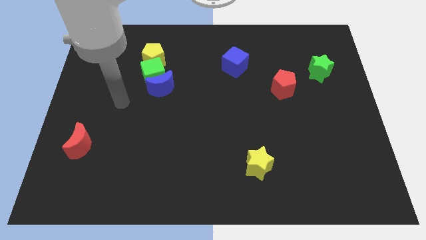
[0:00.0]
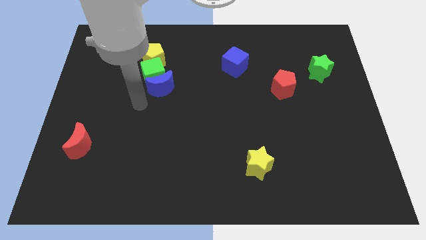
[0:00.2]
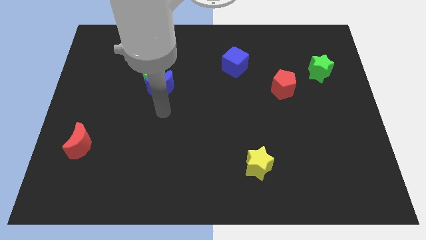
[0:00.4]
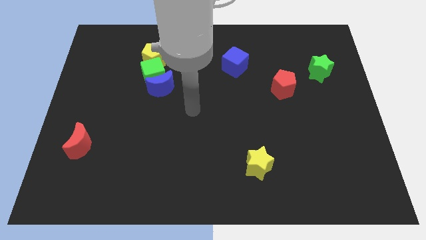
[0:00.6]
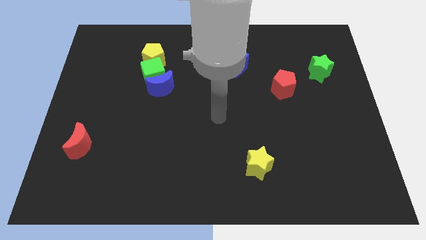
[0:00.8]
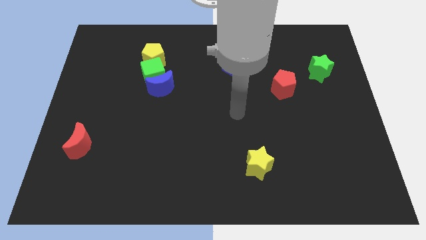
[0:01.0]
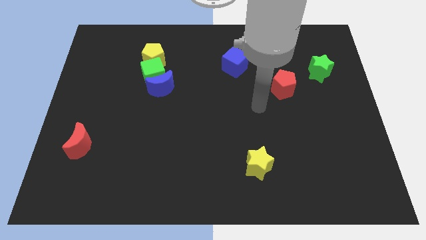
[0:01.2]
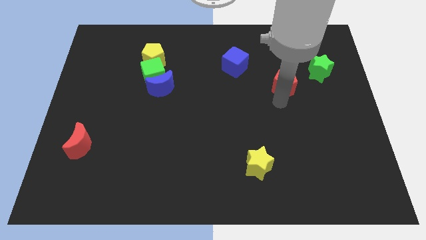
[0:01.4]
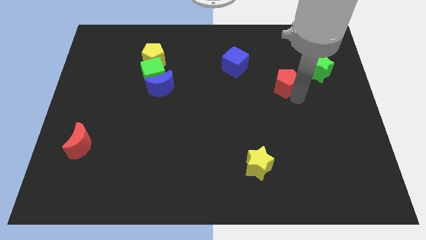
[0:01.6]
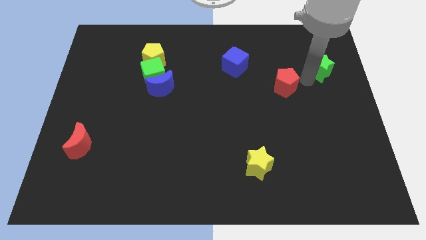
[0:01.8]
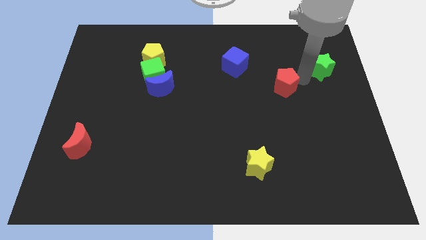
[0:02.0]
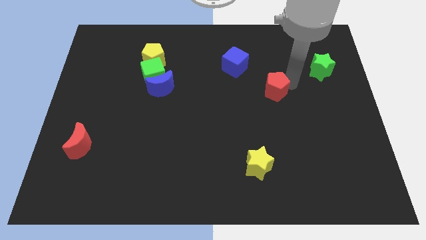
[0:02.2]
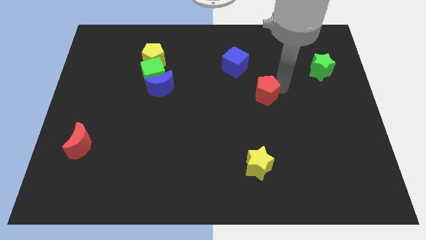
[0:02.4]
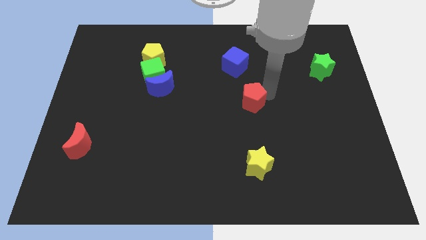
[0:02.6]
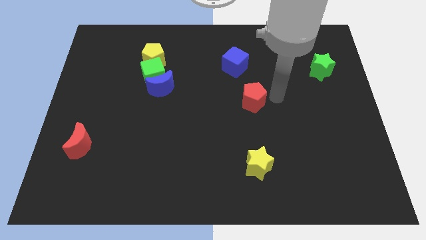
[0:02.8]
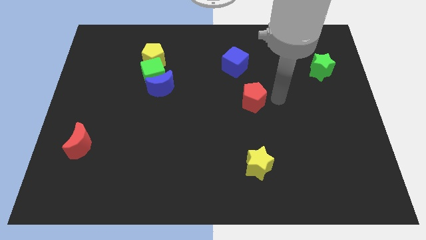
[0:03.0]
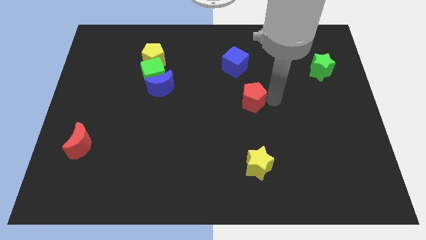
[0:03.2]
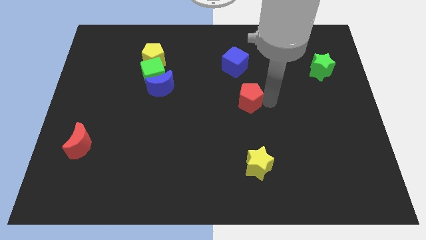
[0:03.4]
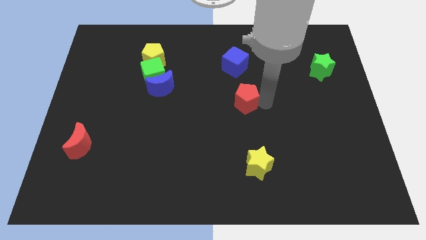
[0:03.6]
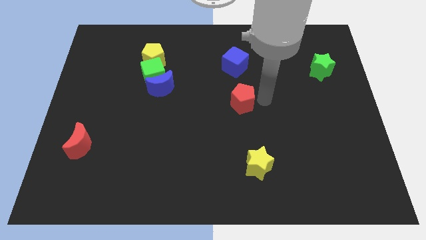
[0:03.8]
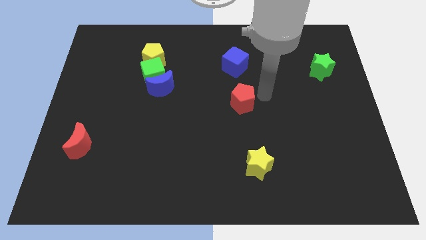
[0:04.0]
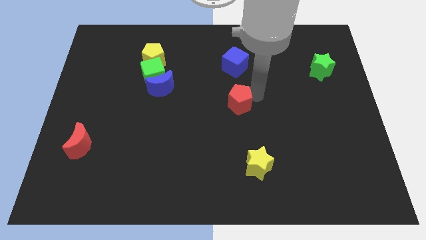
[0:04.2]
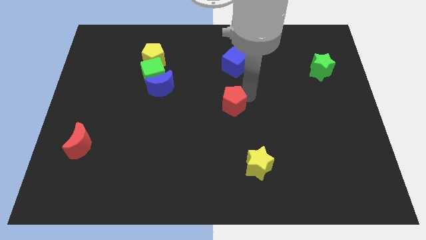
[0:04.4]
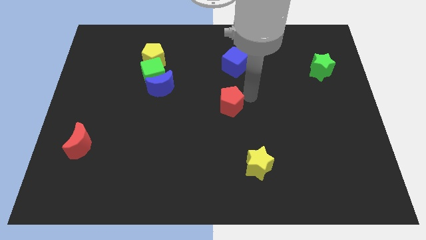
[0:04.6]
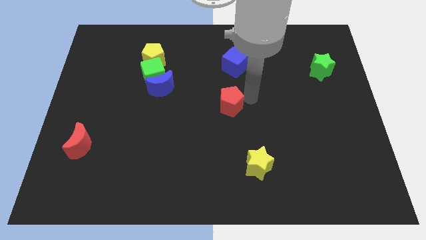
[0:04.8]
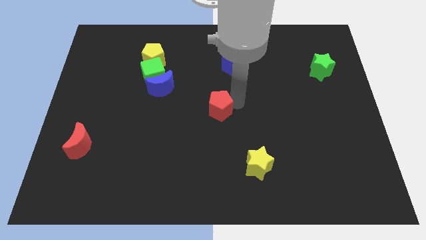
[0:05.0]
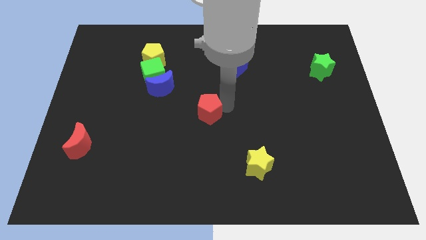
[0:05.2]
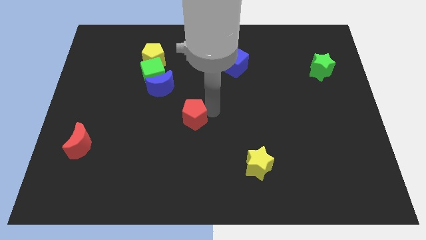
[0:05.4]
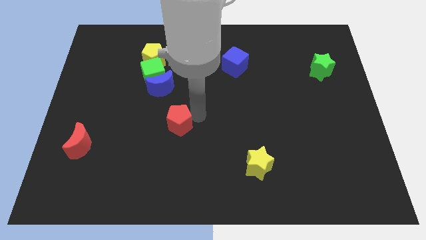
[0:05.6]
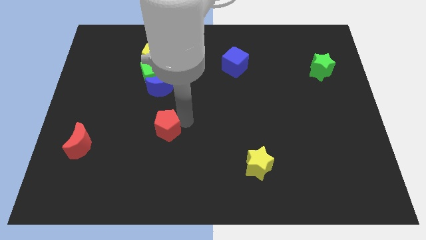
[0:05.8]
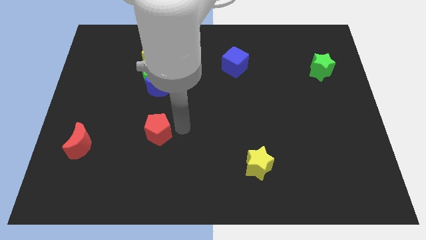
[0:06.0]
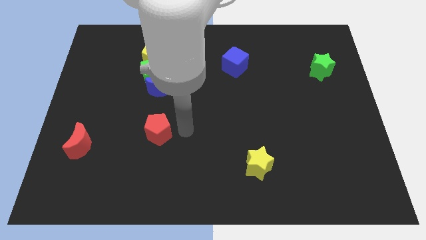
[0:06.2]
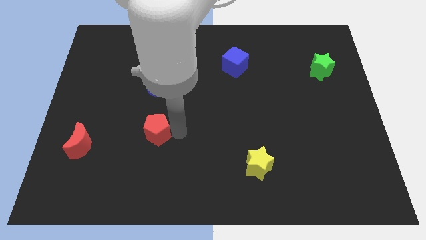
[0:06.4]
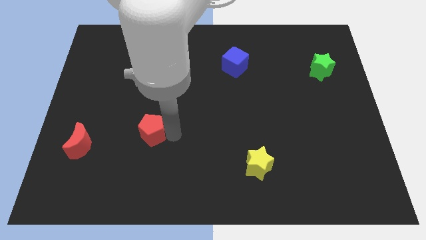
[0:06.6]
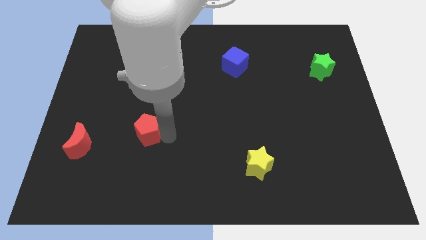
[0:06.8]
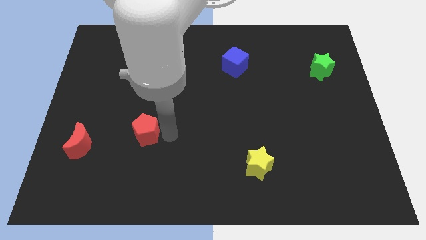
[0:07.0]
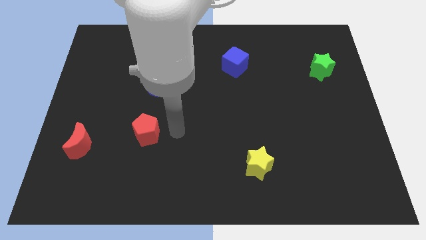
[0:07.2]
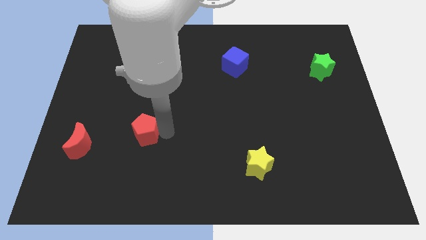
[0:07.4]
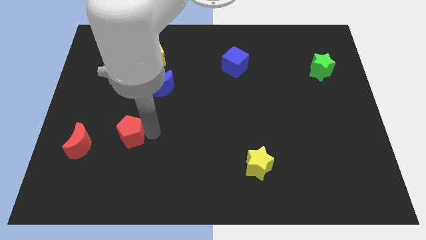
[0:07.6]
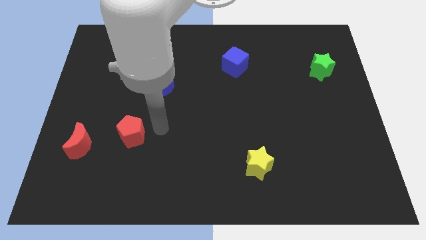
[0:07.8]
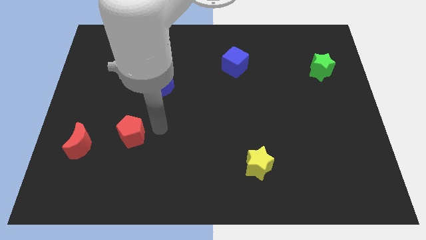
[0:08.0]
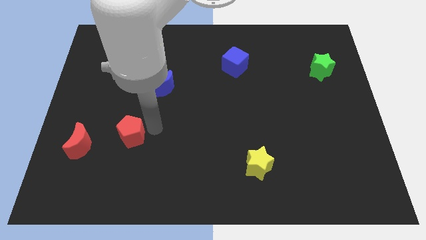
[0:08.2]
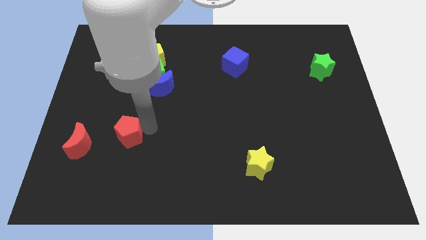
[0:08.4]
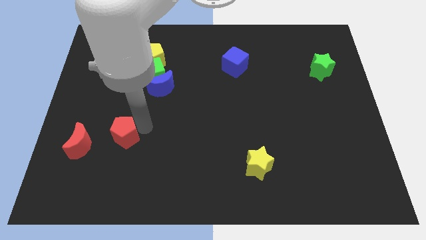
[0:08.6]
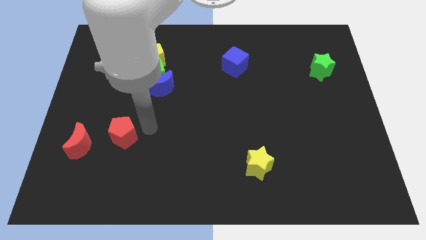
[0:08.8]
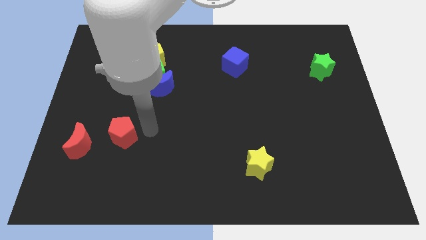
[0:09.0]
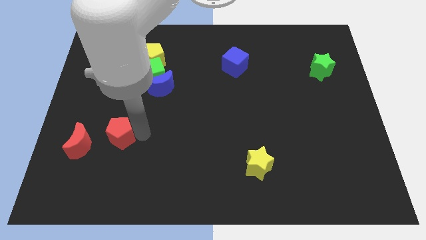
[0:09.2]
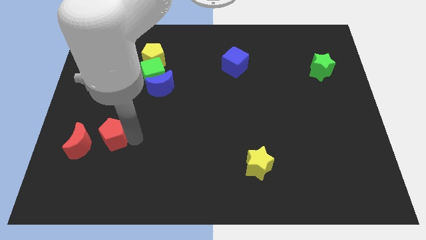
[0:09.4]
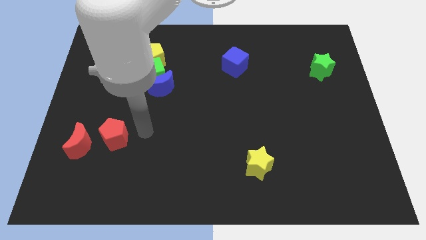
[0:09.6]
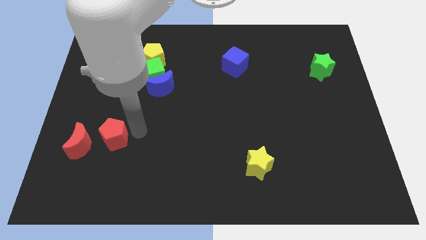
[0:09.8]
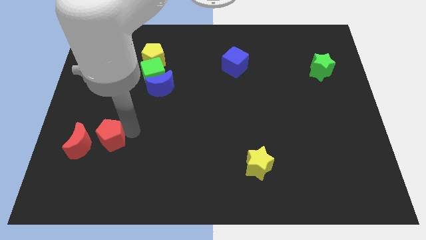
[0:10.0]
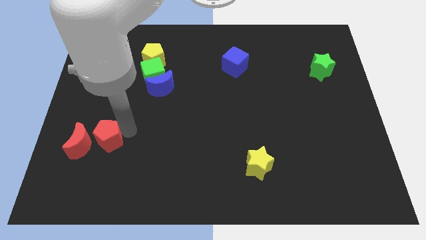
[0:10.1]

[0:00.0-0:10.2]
push the red pentagon next to the red moon

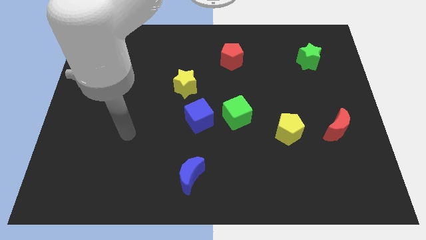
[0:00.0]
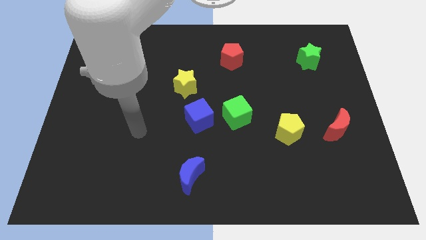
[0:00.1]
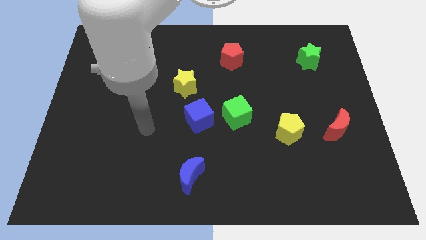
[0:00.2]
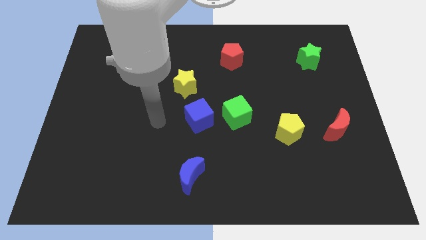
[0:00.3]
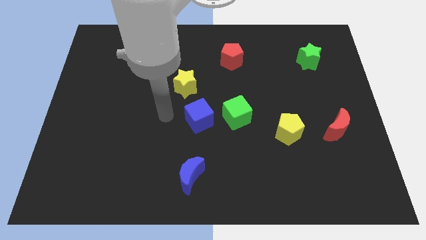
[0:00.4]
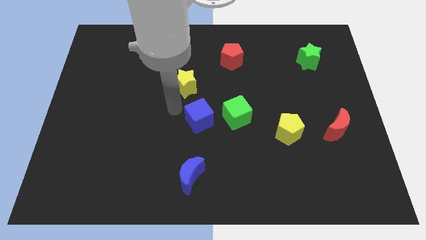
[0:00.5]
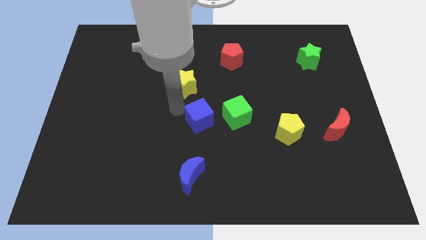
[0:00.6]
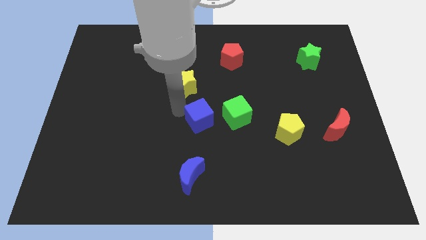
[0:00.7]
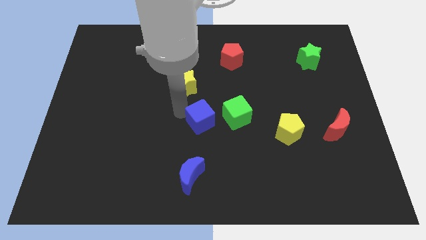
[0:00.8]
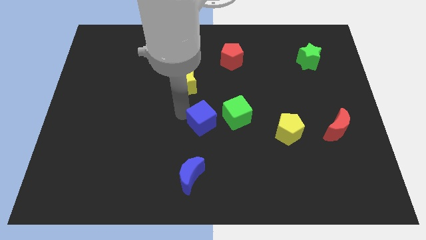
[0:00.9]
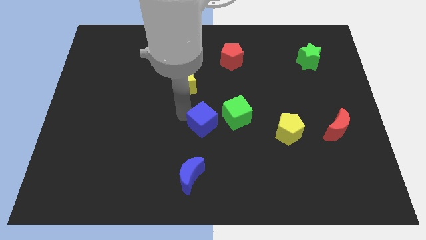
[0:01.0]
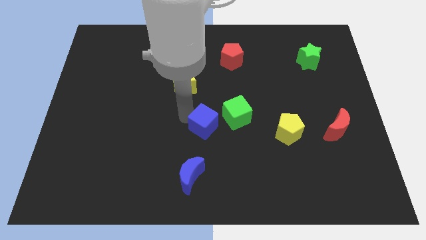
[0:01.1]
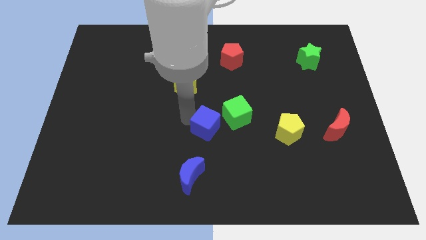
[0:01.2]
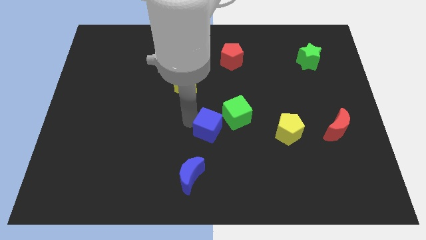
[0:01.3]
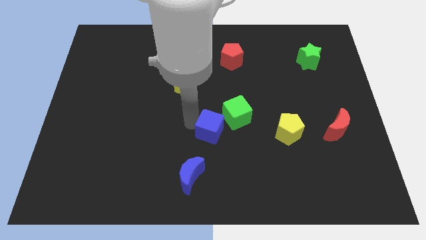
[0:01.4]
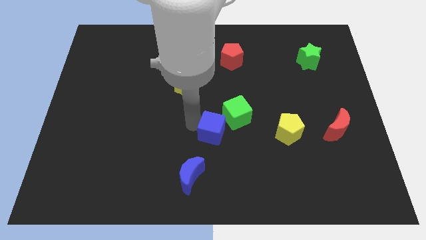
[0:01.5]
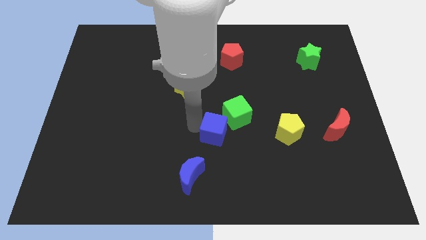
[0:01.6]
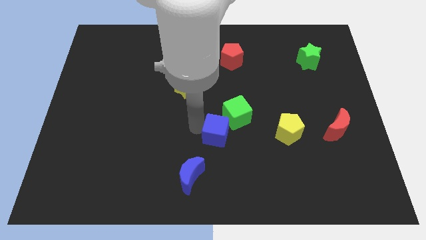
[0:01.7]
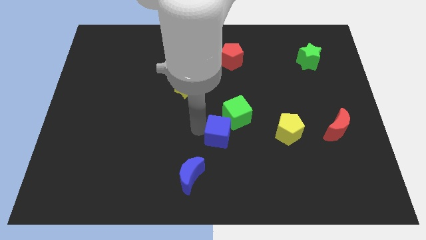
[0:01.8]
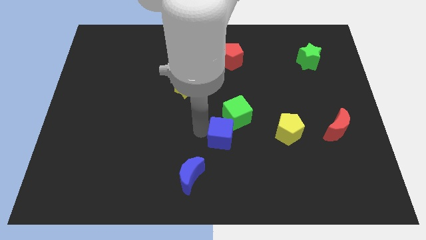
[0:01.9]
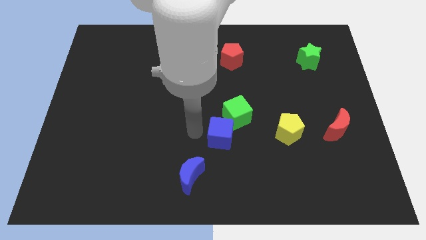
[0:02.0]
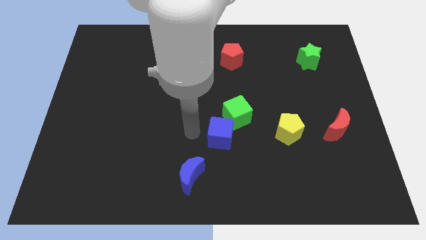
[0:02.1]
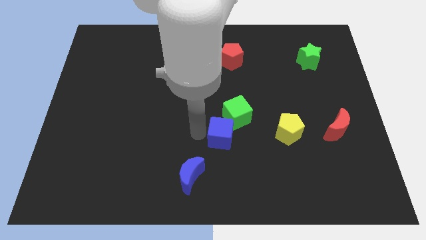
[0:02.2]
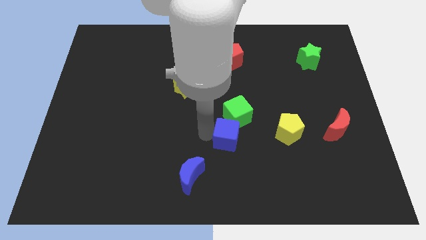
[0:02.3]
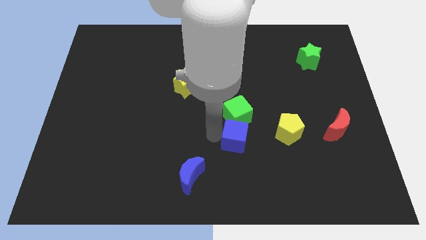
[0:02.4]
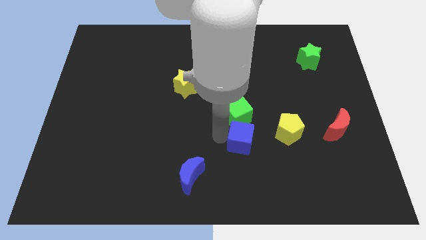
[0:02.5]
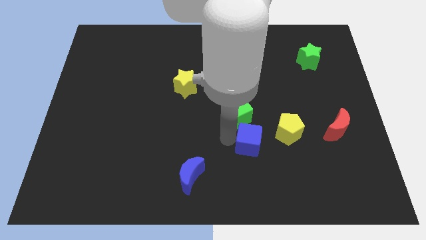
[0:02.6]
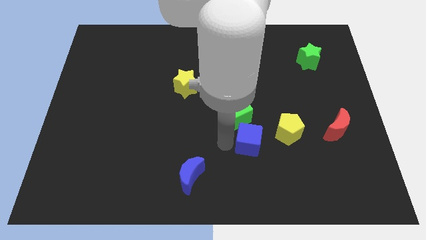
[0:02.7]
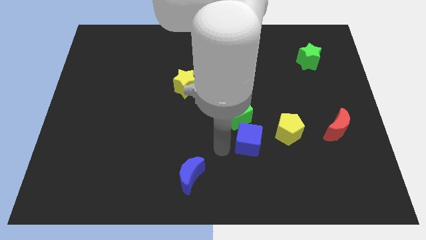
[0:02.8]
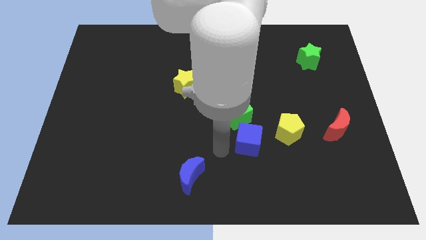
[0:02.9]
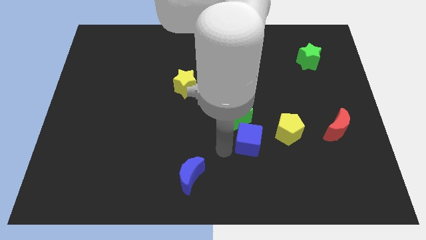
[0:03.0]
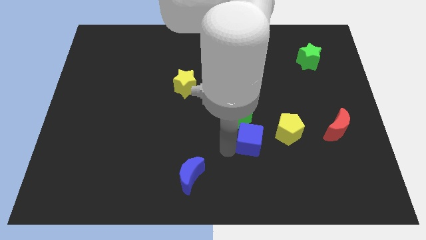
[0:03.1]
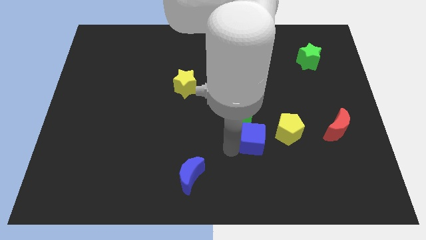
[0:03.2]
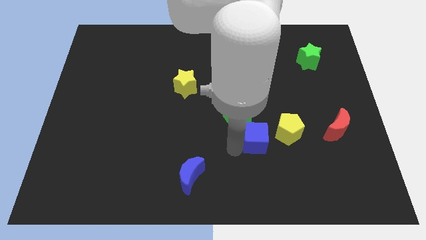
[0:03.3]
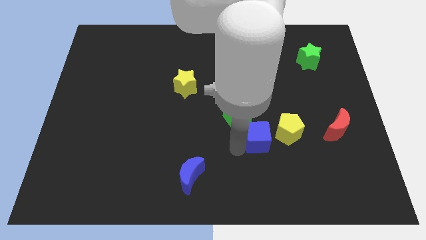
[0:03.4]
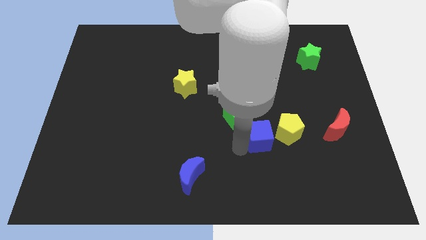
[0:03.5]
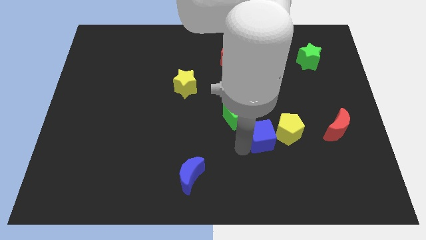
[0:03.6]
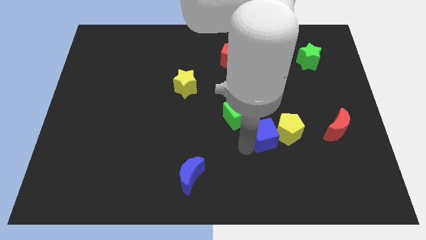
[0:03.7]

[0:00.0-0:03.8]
put the blue cube to the yellow pentagon
